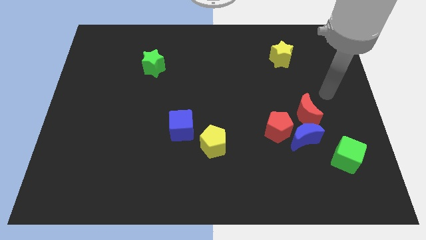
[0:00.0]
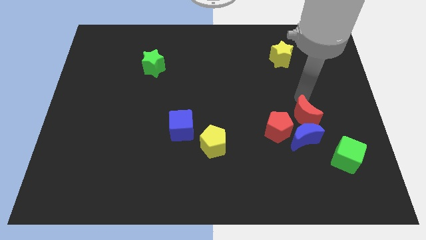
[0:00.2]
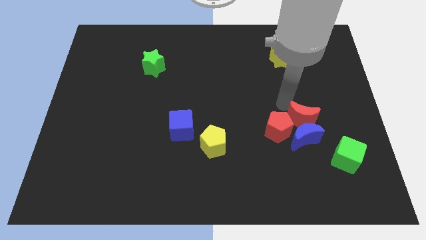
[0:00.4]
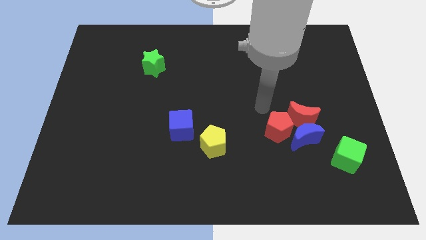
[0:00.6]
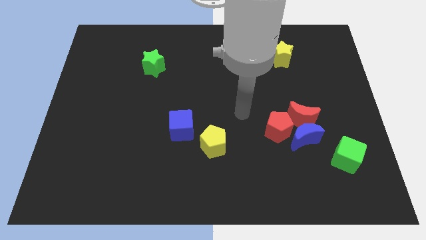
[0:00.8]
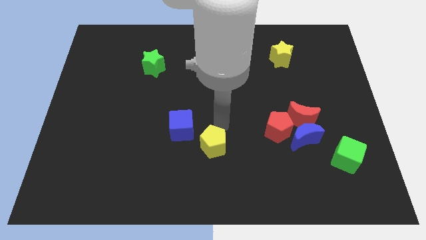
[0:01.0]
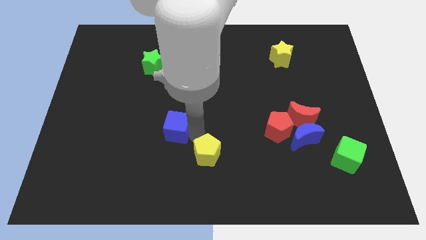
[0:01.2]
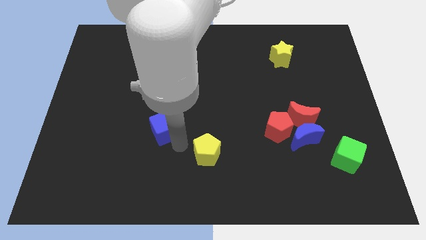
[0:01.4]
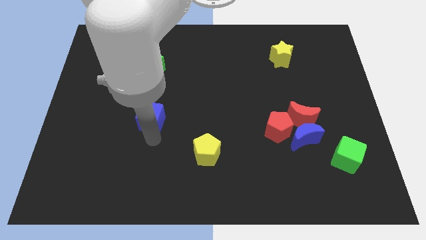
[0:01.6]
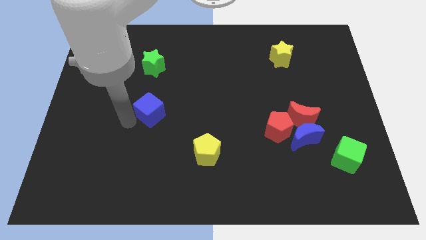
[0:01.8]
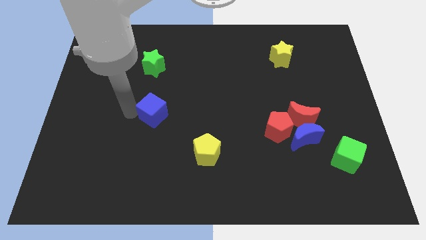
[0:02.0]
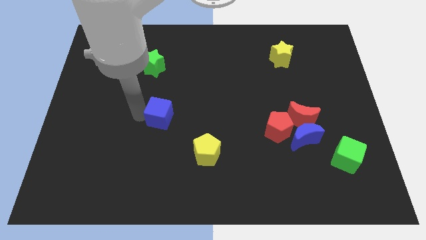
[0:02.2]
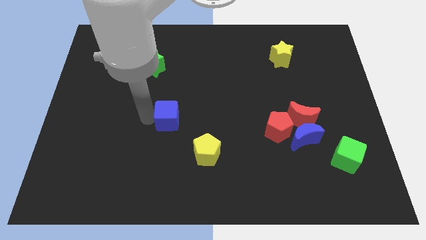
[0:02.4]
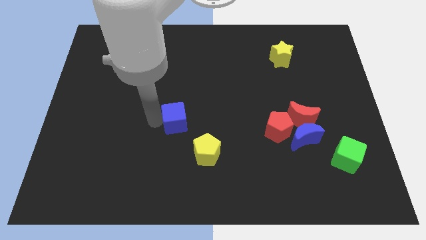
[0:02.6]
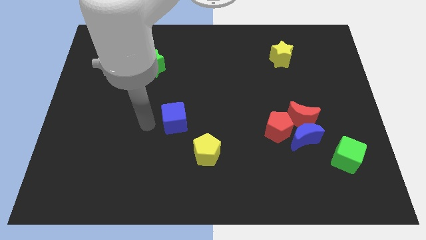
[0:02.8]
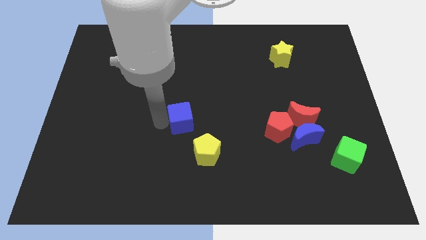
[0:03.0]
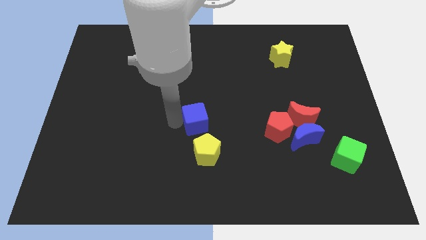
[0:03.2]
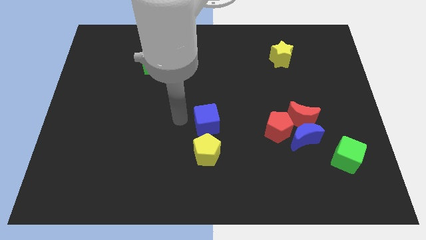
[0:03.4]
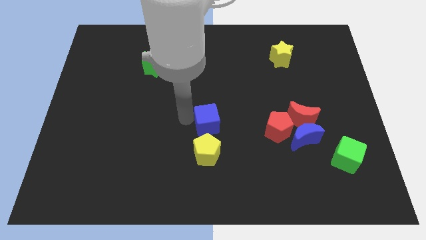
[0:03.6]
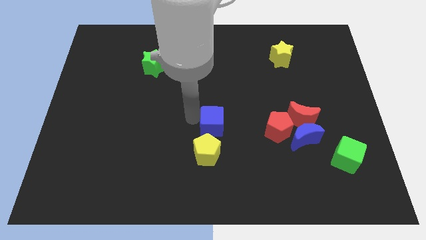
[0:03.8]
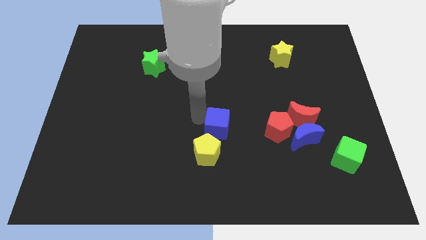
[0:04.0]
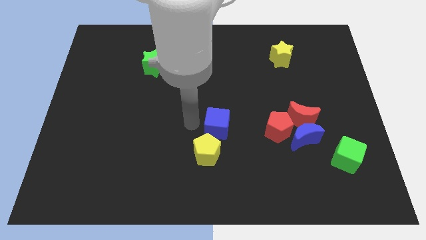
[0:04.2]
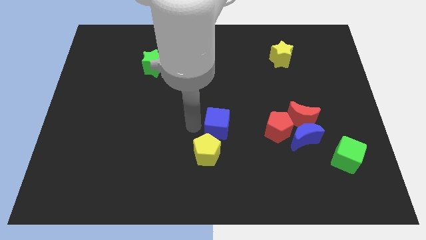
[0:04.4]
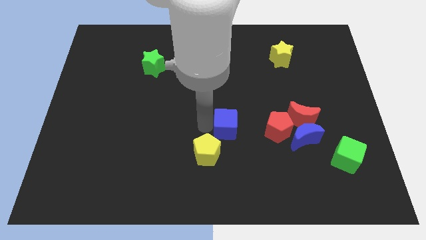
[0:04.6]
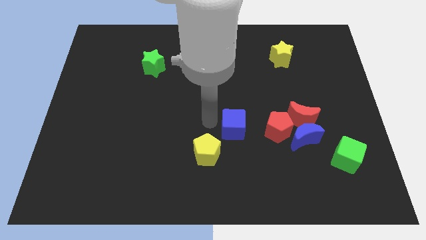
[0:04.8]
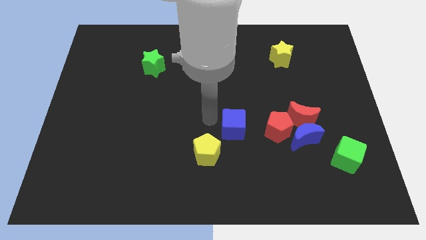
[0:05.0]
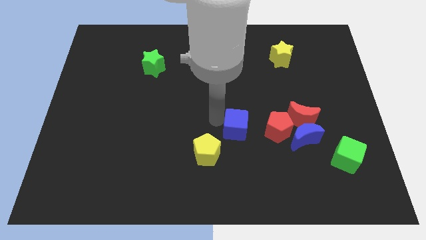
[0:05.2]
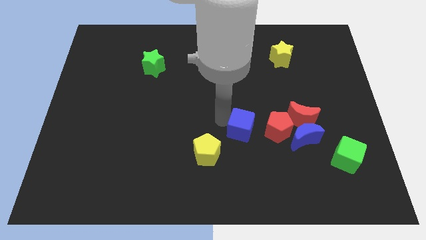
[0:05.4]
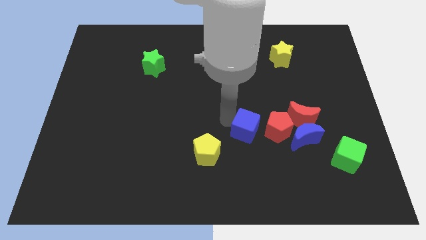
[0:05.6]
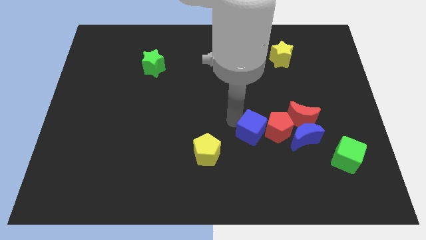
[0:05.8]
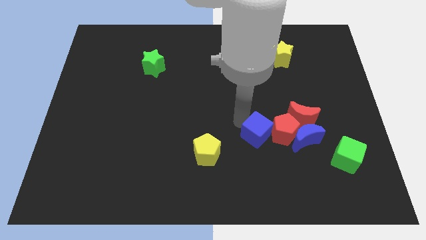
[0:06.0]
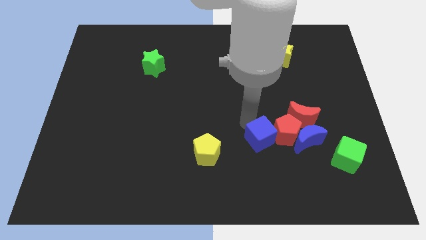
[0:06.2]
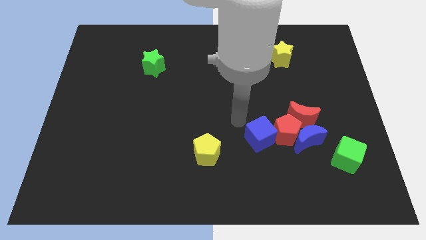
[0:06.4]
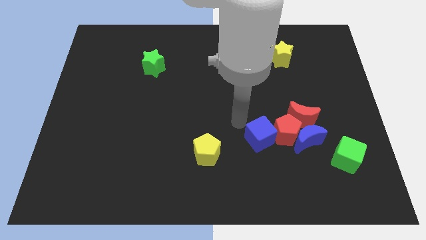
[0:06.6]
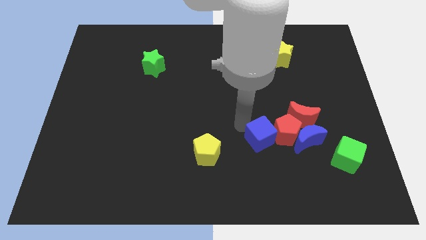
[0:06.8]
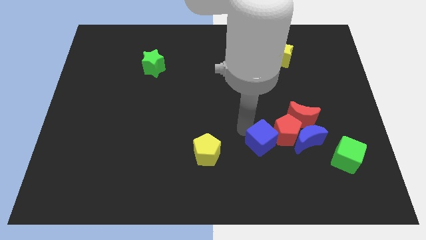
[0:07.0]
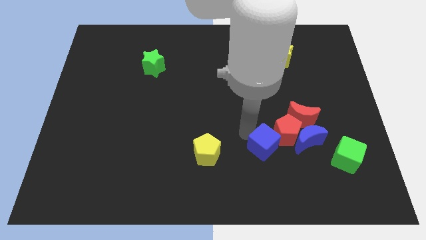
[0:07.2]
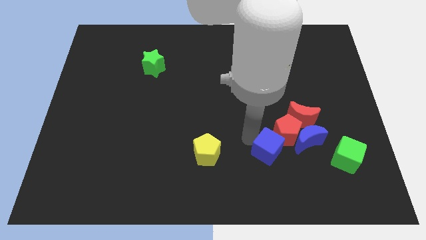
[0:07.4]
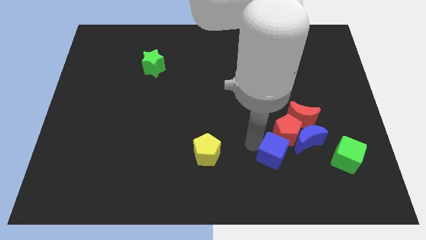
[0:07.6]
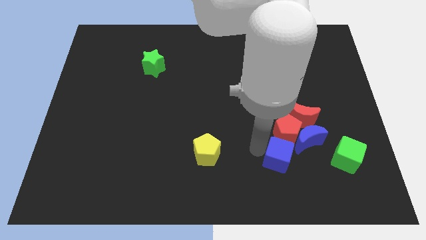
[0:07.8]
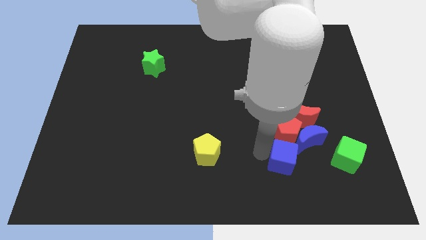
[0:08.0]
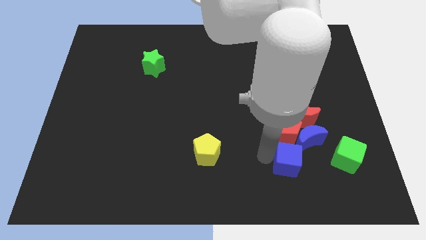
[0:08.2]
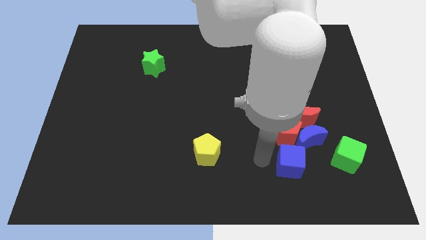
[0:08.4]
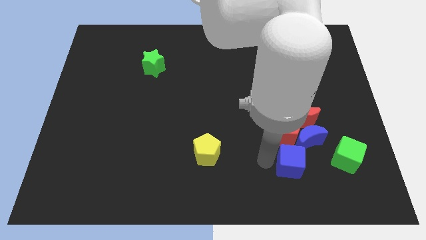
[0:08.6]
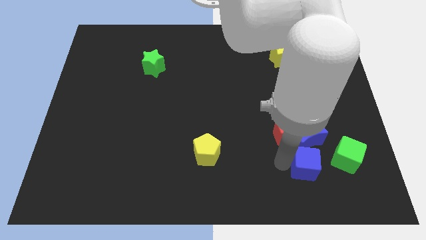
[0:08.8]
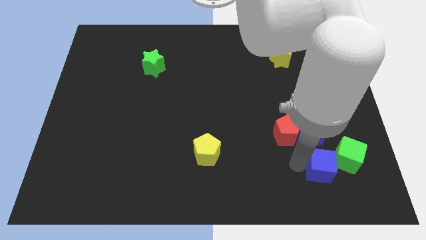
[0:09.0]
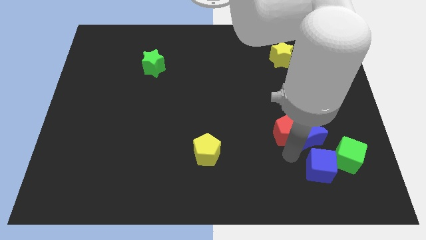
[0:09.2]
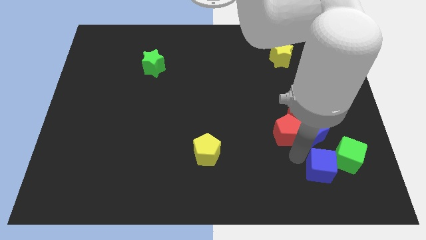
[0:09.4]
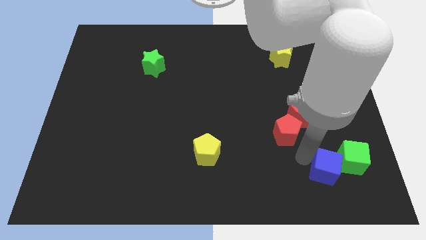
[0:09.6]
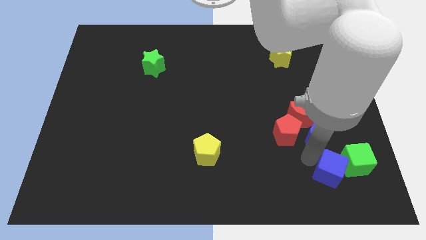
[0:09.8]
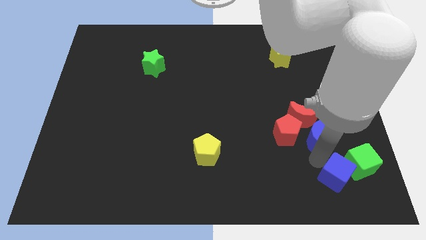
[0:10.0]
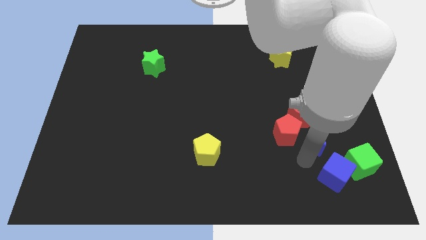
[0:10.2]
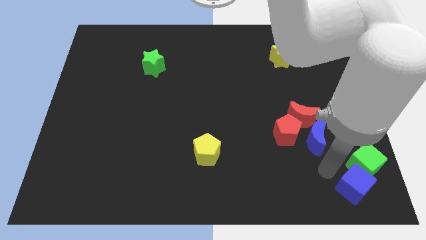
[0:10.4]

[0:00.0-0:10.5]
put the blue cube to the bottom right of the board
